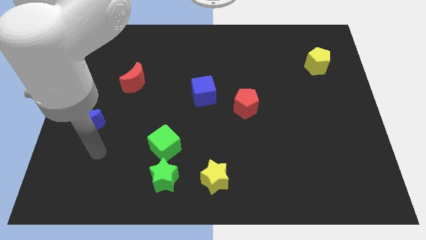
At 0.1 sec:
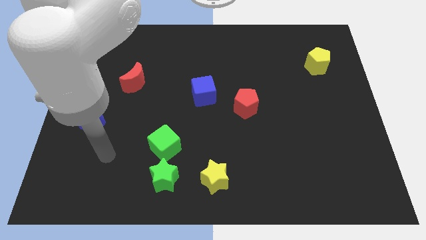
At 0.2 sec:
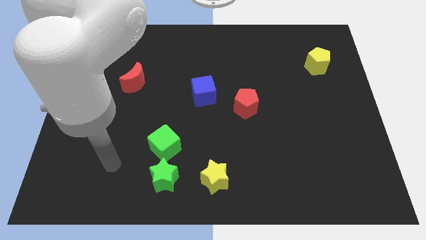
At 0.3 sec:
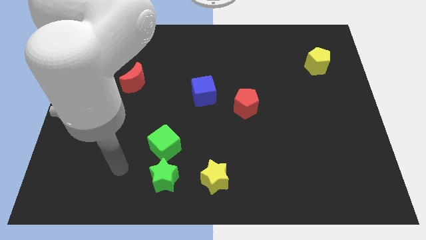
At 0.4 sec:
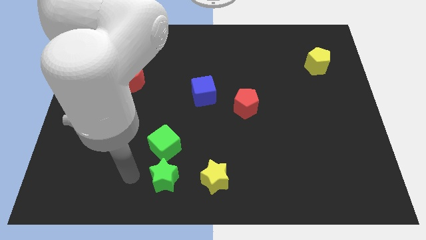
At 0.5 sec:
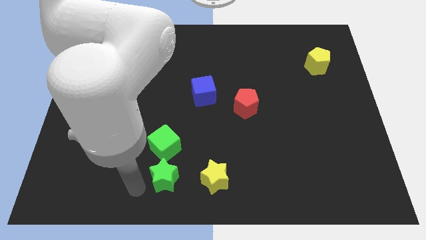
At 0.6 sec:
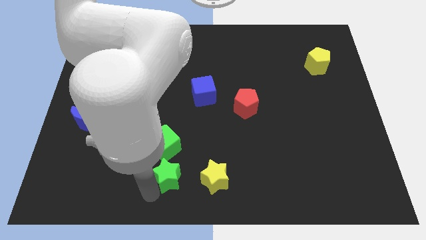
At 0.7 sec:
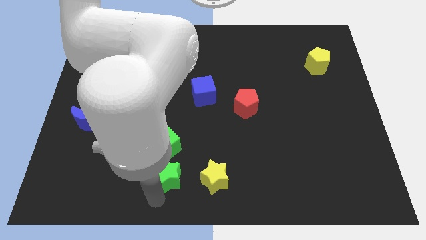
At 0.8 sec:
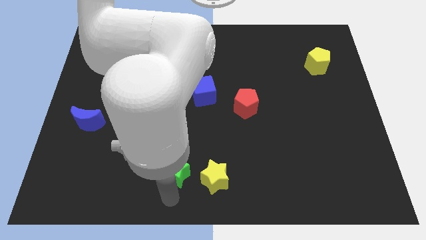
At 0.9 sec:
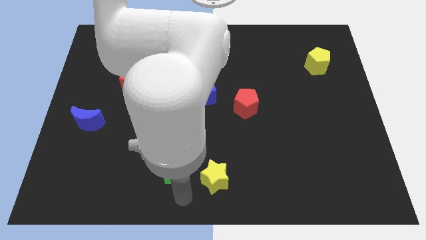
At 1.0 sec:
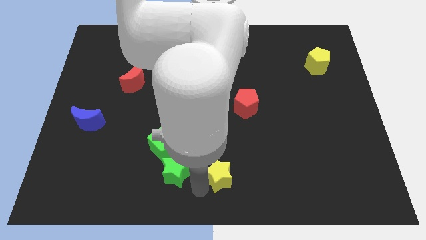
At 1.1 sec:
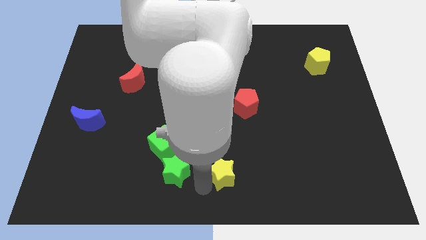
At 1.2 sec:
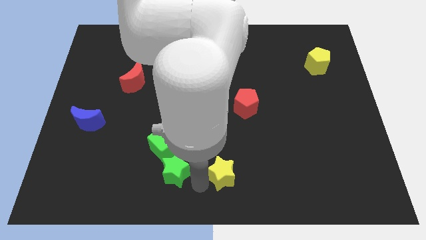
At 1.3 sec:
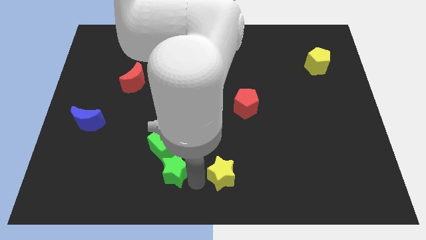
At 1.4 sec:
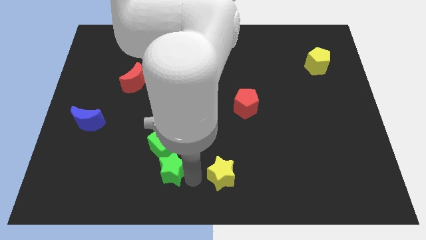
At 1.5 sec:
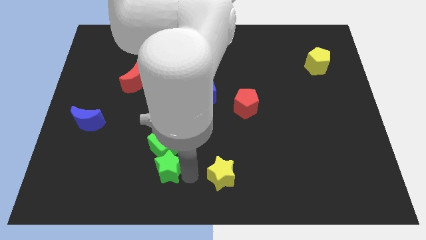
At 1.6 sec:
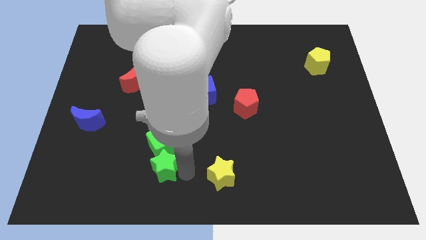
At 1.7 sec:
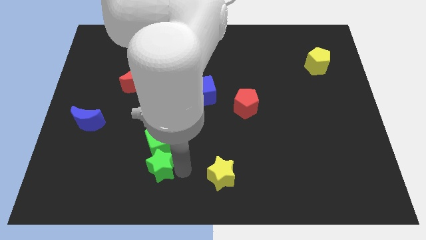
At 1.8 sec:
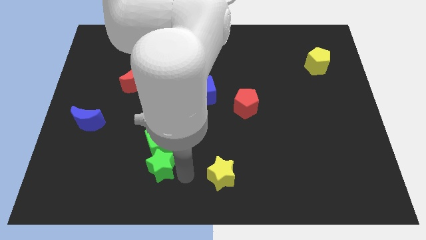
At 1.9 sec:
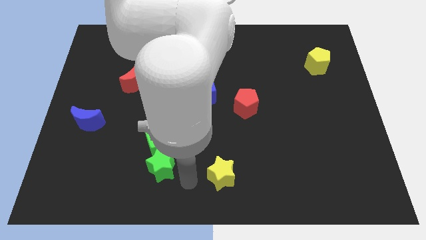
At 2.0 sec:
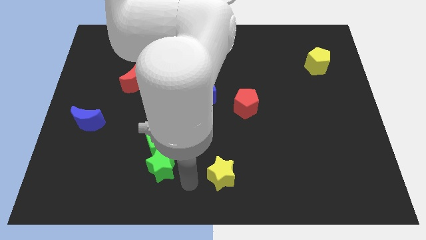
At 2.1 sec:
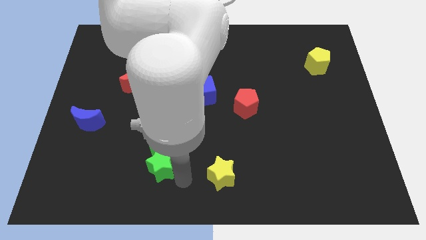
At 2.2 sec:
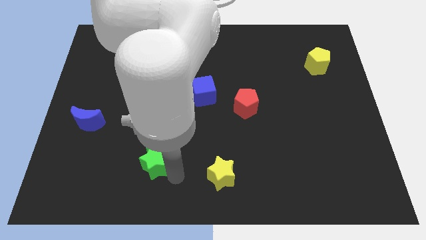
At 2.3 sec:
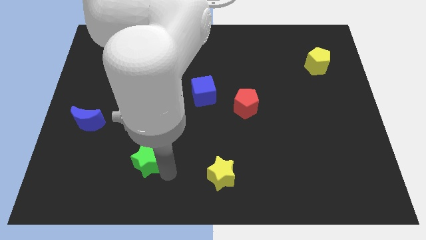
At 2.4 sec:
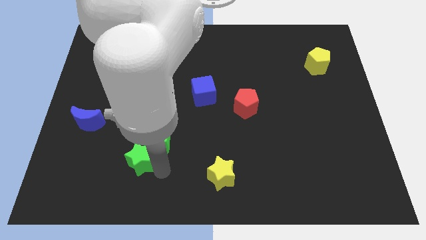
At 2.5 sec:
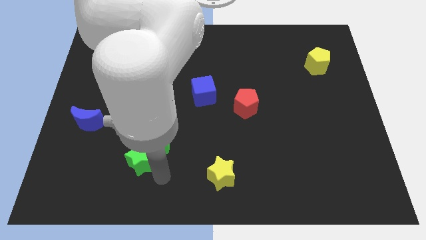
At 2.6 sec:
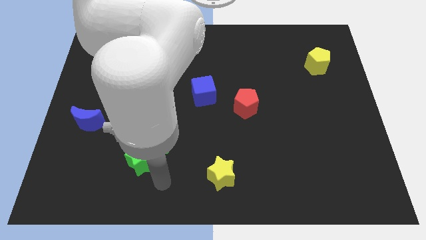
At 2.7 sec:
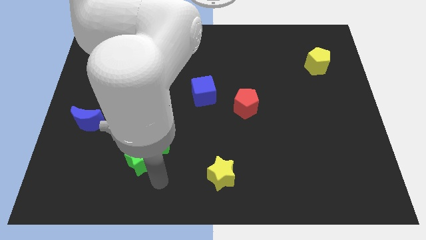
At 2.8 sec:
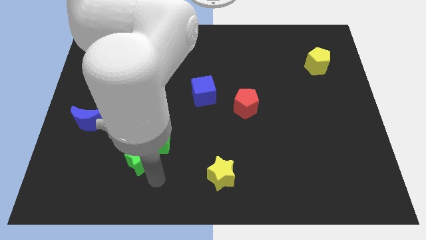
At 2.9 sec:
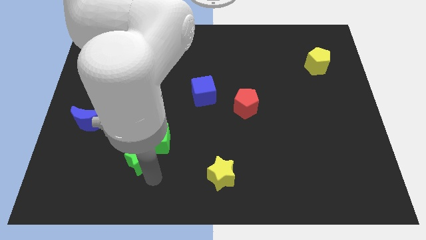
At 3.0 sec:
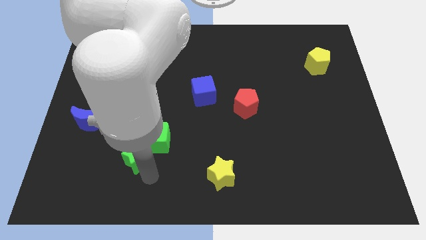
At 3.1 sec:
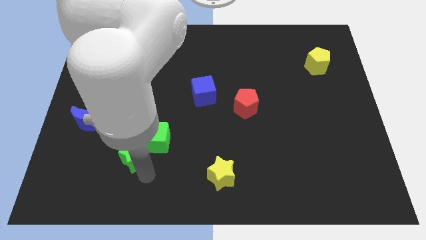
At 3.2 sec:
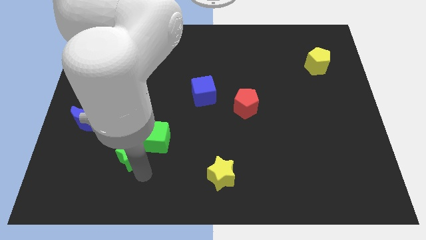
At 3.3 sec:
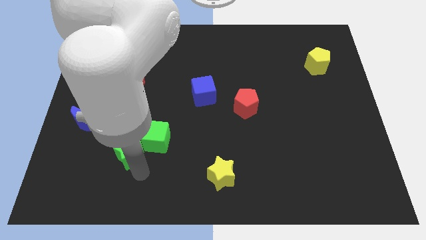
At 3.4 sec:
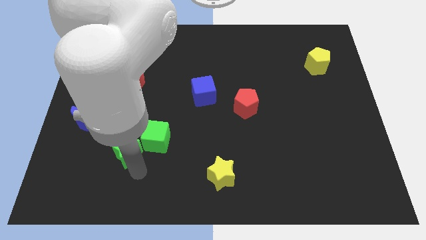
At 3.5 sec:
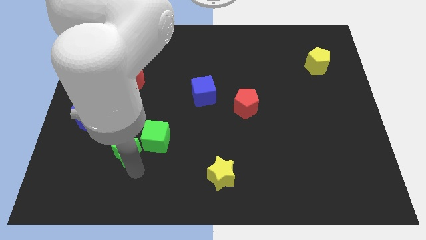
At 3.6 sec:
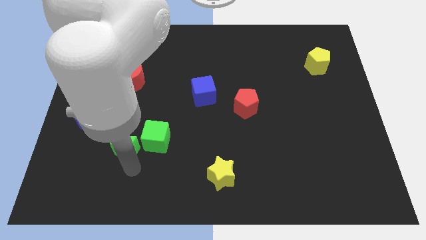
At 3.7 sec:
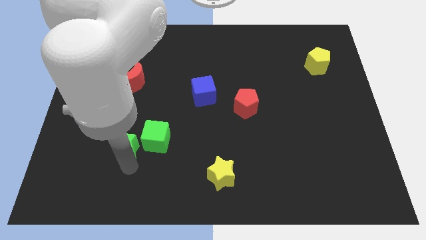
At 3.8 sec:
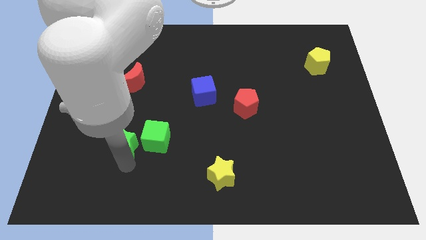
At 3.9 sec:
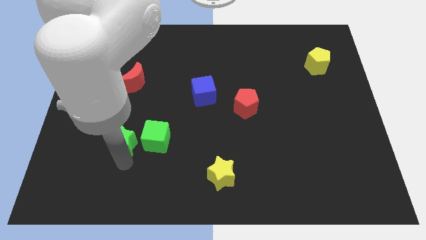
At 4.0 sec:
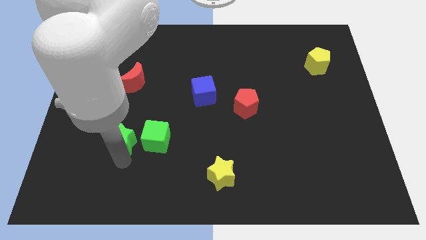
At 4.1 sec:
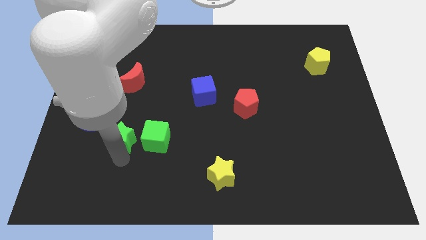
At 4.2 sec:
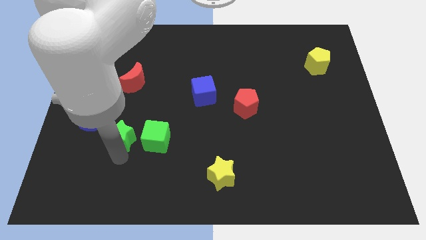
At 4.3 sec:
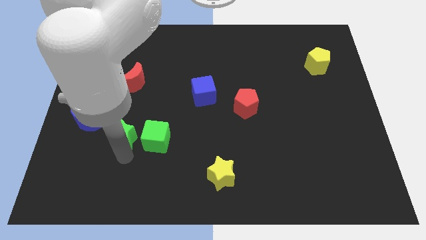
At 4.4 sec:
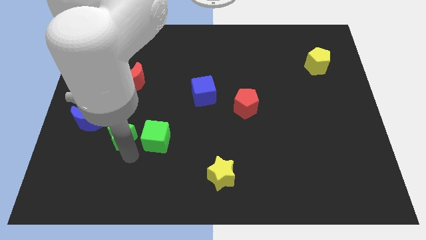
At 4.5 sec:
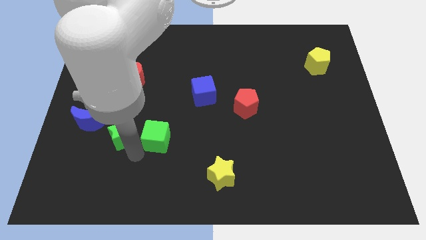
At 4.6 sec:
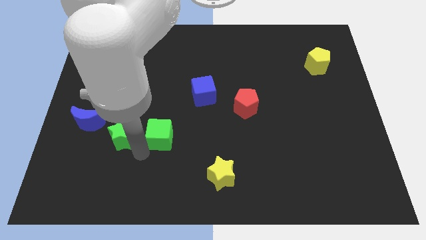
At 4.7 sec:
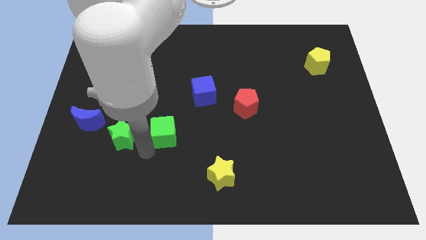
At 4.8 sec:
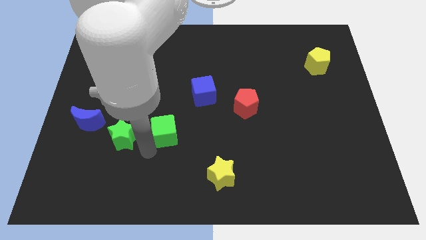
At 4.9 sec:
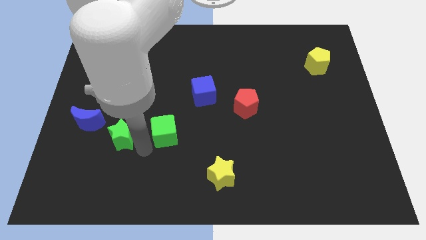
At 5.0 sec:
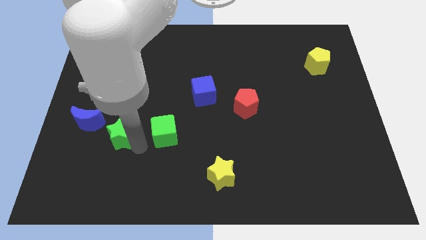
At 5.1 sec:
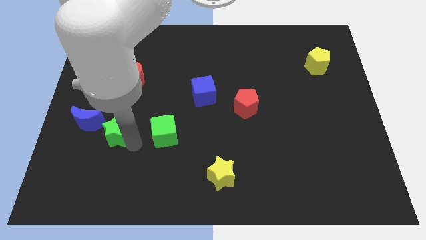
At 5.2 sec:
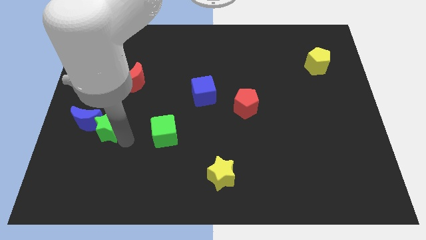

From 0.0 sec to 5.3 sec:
move the green star towards the blue moon
